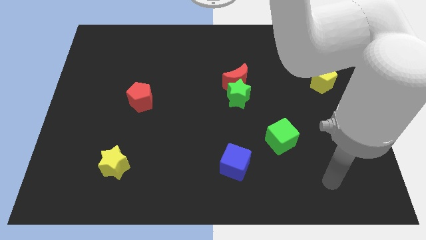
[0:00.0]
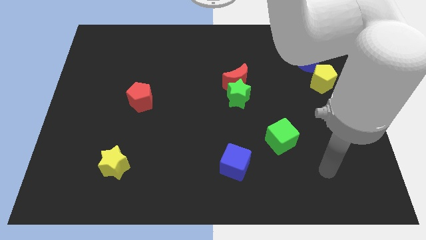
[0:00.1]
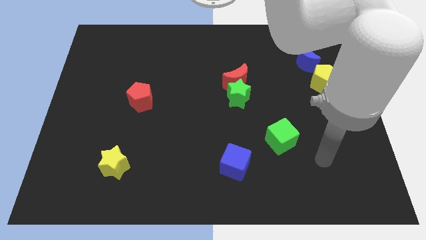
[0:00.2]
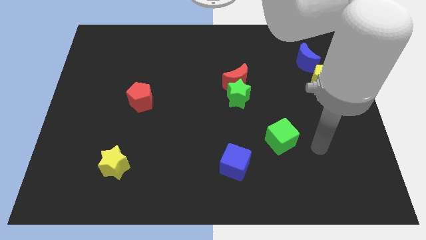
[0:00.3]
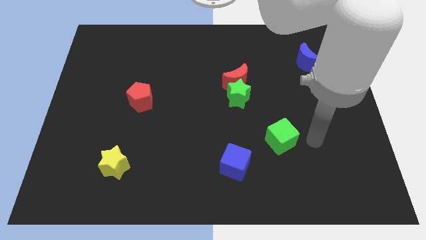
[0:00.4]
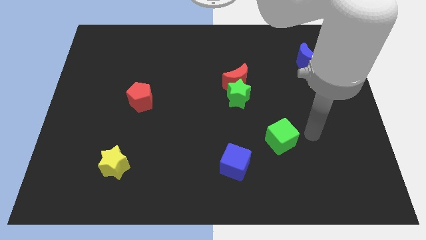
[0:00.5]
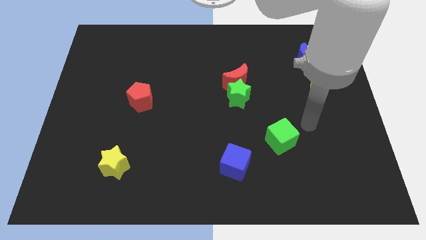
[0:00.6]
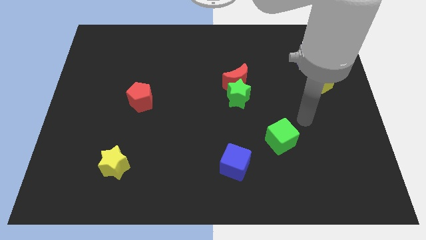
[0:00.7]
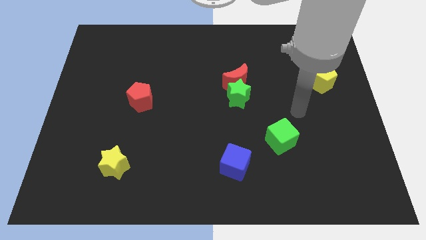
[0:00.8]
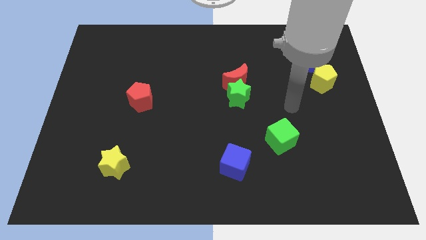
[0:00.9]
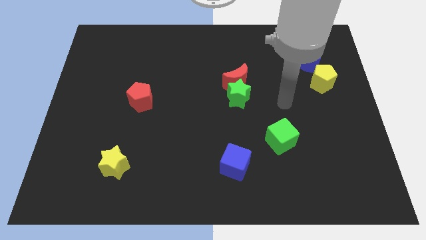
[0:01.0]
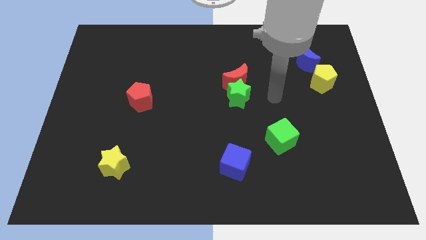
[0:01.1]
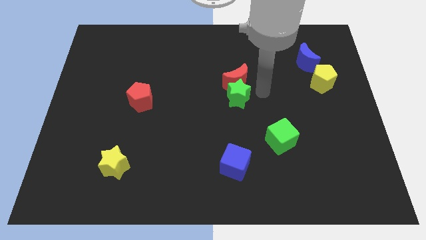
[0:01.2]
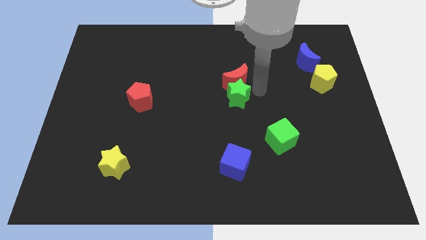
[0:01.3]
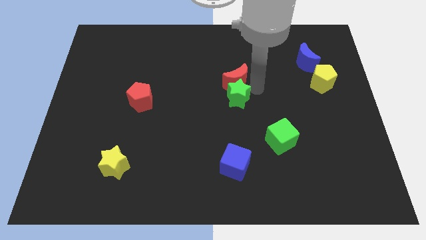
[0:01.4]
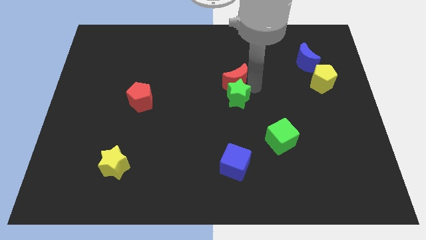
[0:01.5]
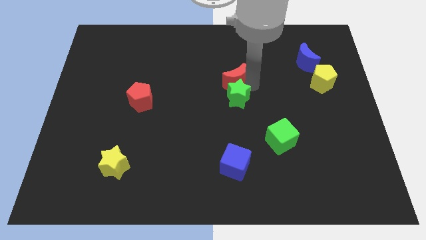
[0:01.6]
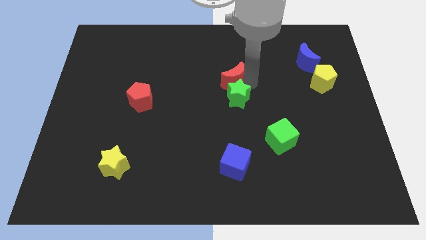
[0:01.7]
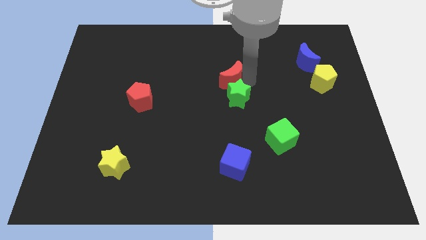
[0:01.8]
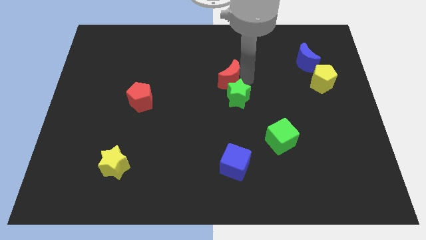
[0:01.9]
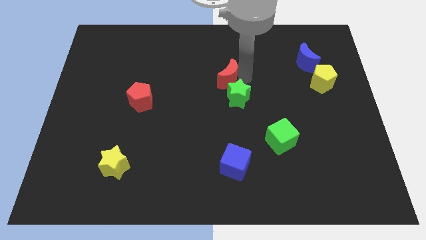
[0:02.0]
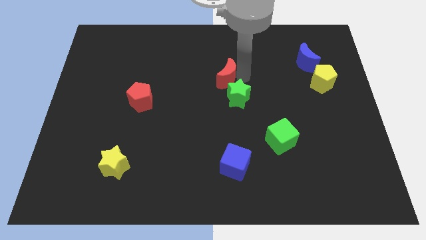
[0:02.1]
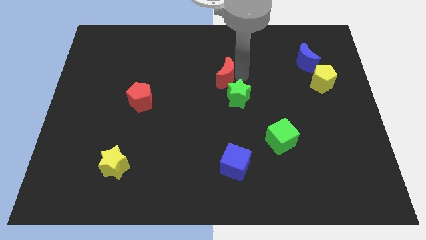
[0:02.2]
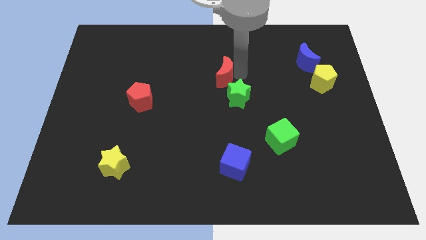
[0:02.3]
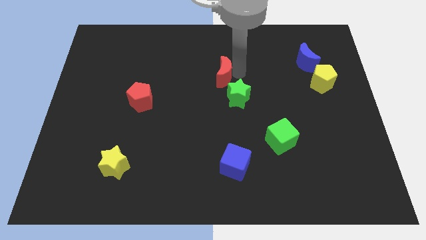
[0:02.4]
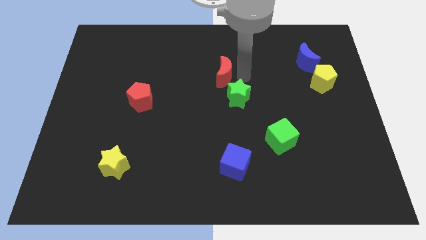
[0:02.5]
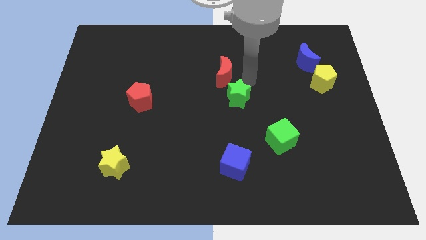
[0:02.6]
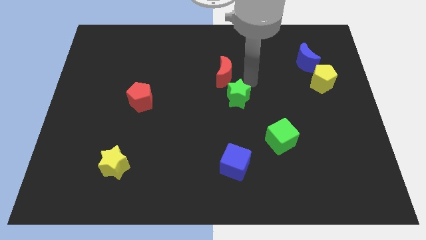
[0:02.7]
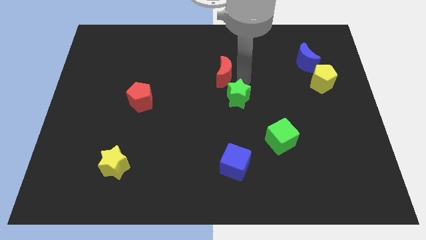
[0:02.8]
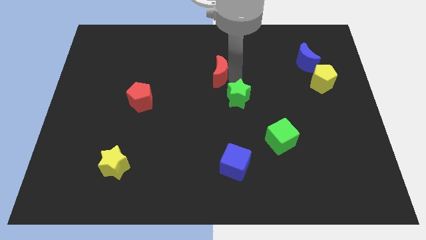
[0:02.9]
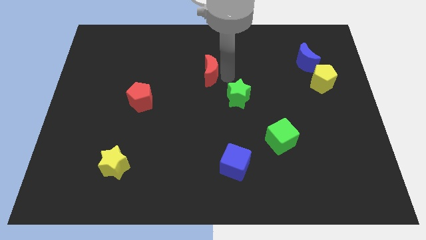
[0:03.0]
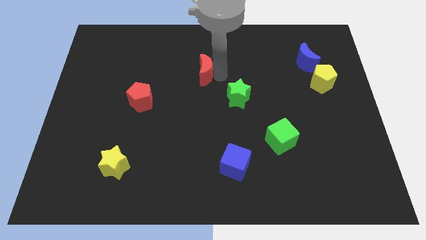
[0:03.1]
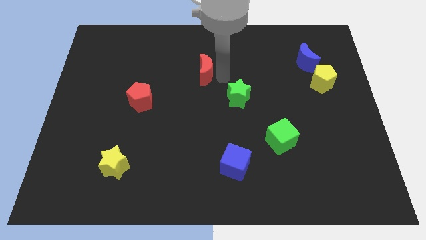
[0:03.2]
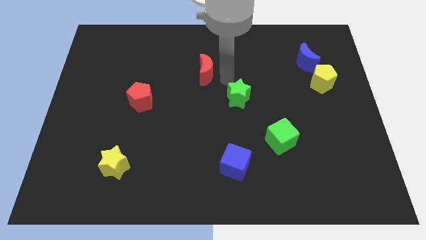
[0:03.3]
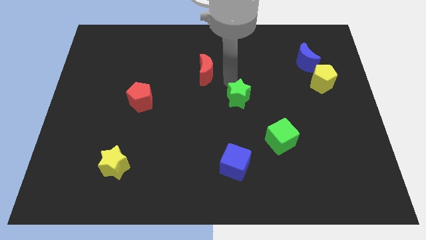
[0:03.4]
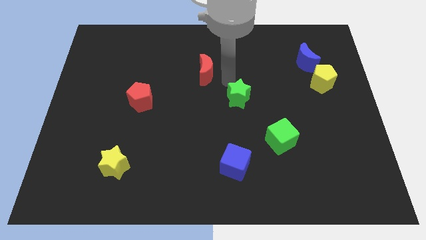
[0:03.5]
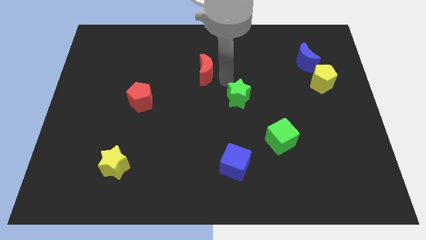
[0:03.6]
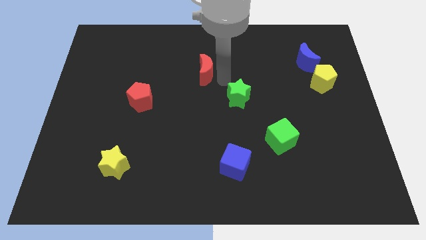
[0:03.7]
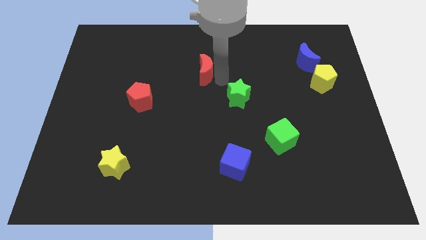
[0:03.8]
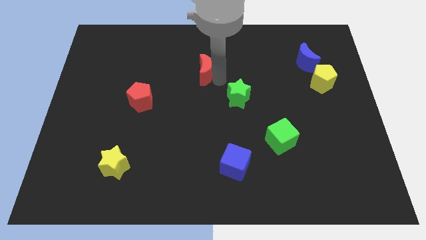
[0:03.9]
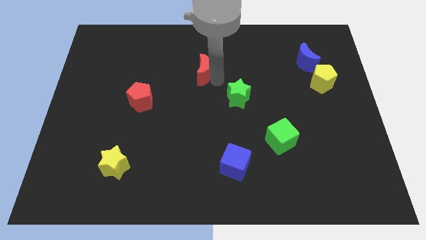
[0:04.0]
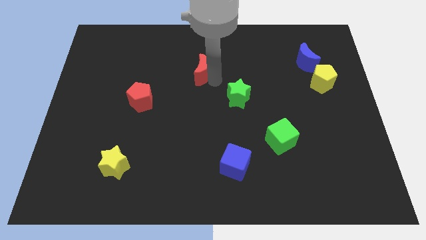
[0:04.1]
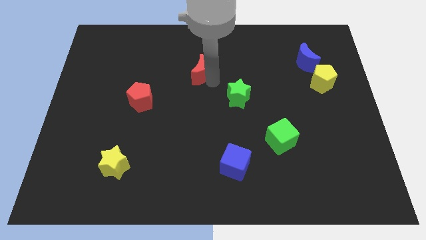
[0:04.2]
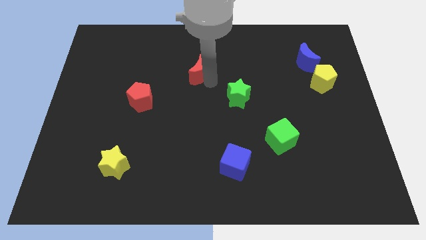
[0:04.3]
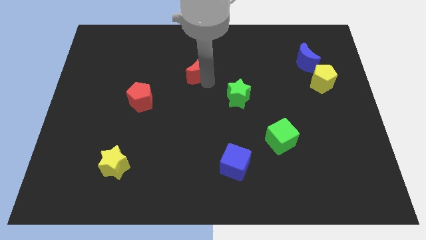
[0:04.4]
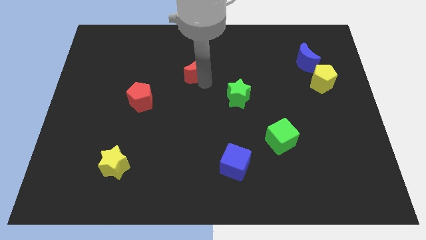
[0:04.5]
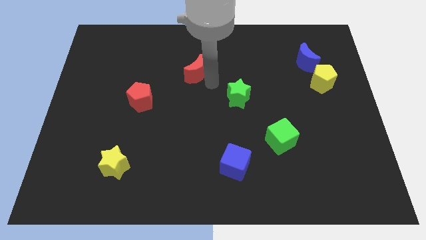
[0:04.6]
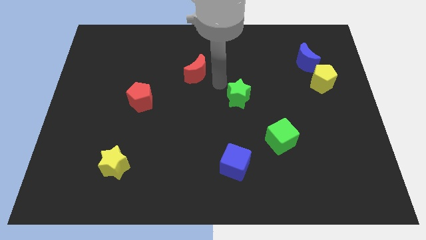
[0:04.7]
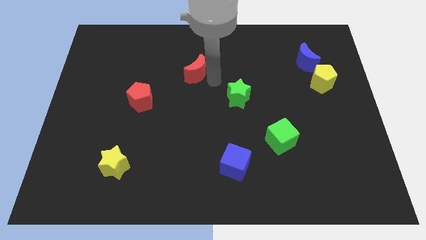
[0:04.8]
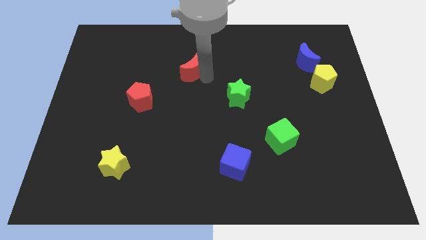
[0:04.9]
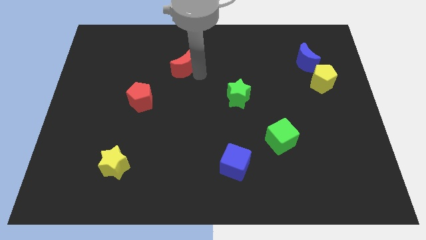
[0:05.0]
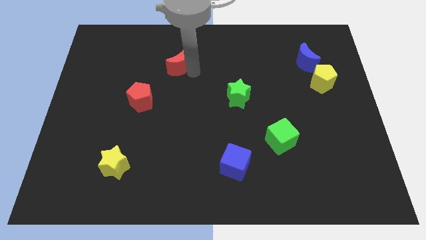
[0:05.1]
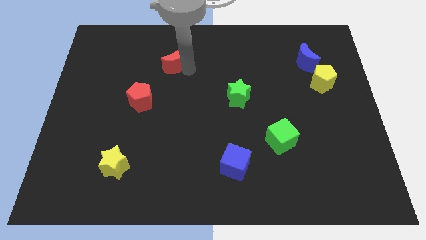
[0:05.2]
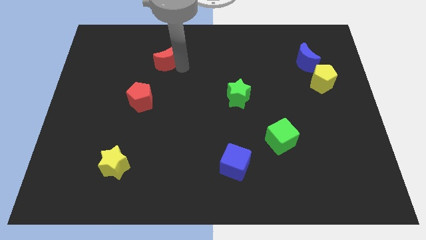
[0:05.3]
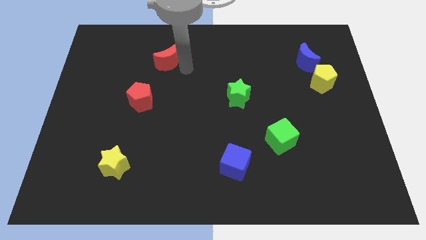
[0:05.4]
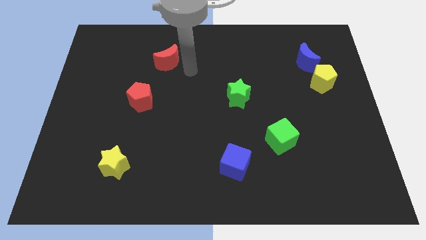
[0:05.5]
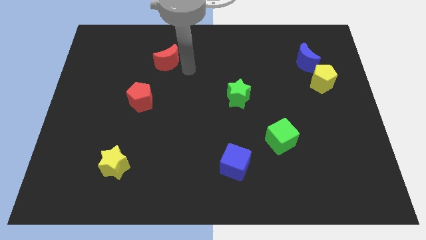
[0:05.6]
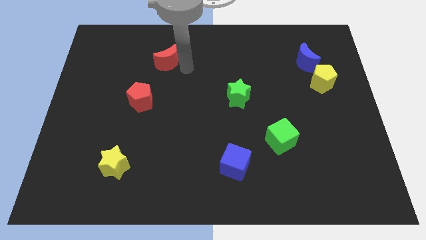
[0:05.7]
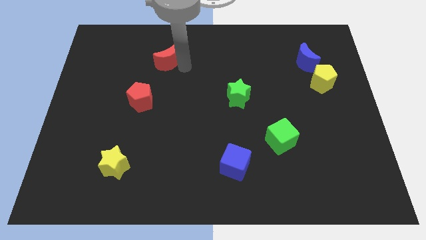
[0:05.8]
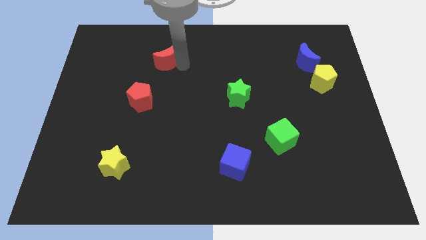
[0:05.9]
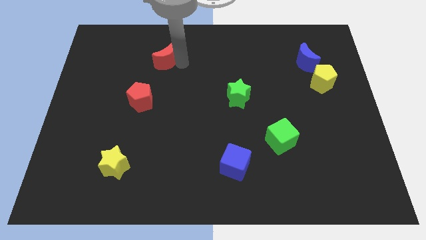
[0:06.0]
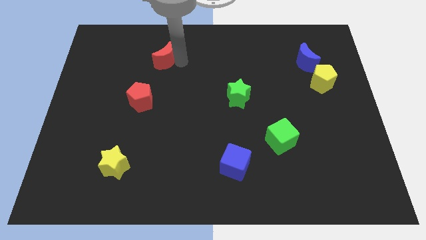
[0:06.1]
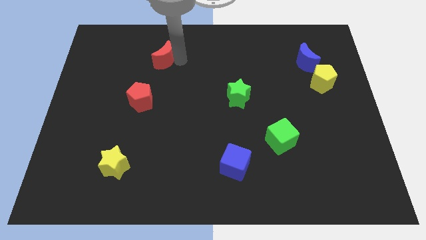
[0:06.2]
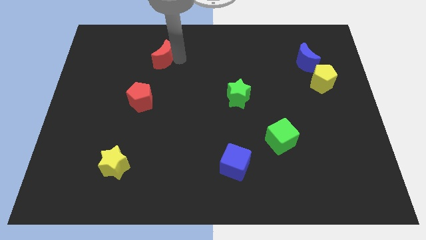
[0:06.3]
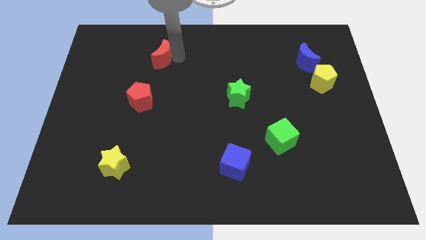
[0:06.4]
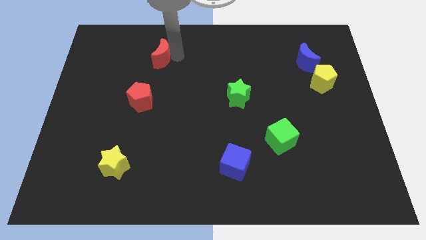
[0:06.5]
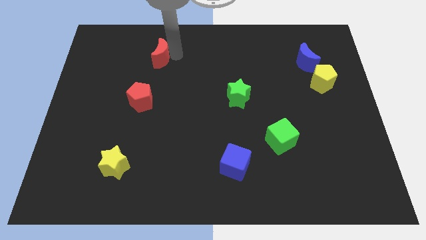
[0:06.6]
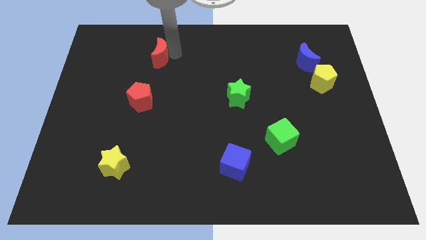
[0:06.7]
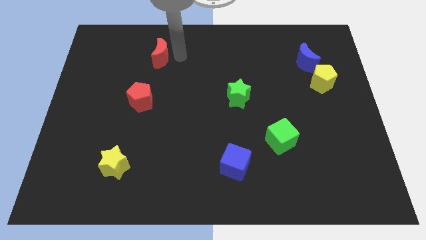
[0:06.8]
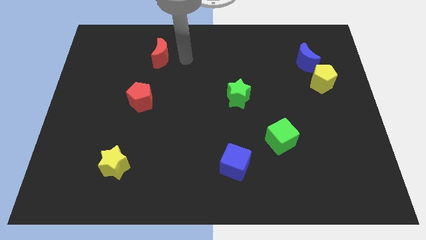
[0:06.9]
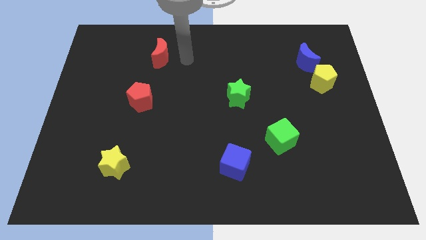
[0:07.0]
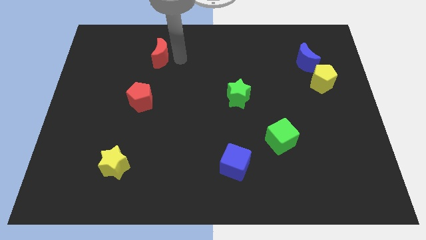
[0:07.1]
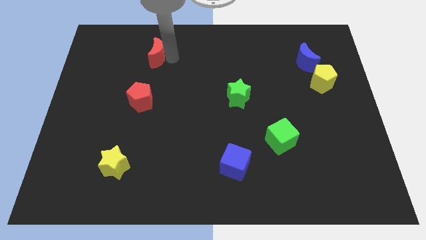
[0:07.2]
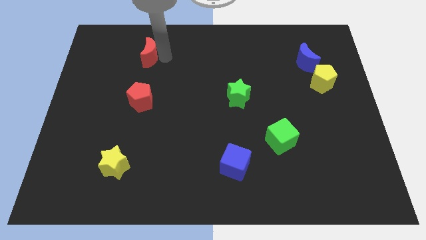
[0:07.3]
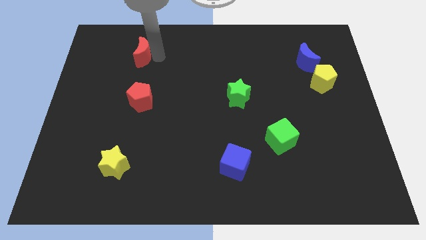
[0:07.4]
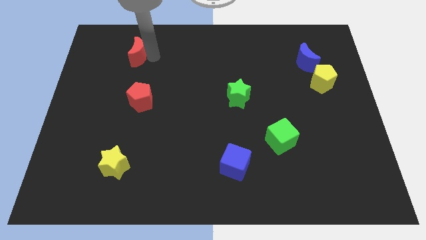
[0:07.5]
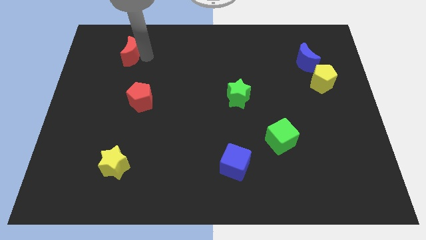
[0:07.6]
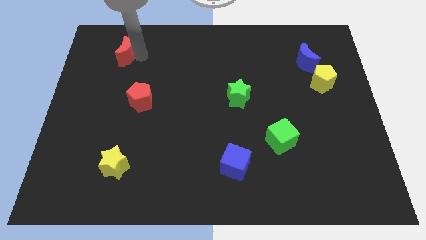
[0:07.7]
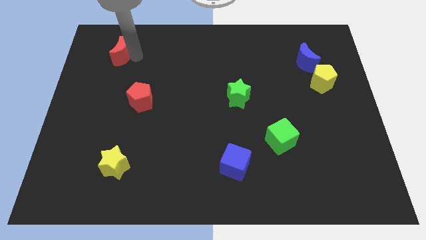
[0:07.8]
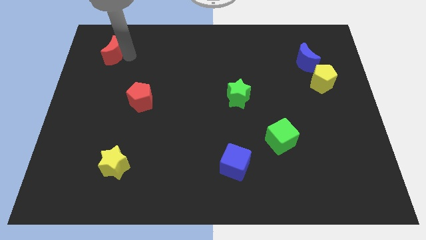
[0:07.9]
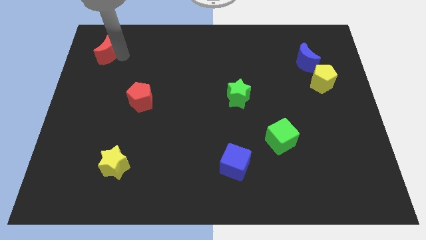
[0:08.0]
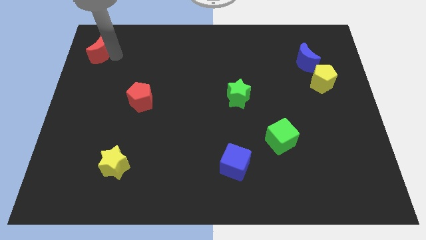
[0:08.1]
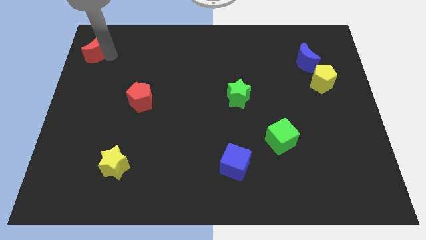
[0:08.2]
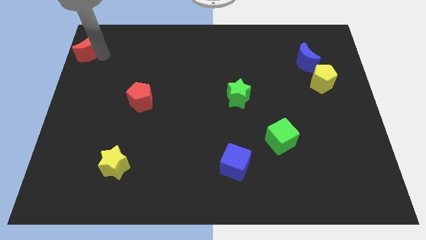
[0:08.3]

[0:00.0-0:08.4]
put the red moon to the top left
